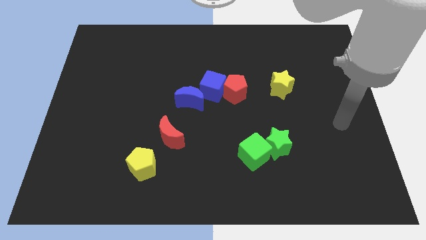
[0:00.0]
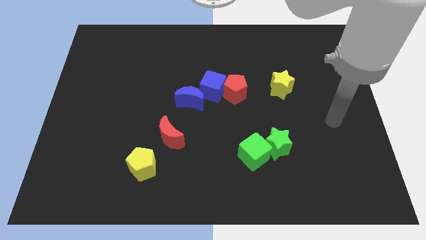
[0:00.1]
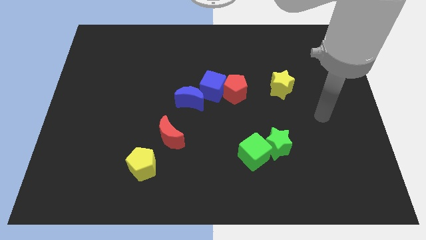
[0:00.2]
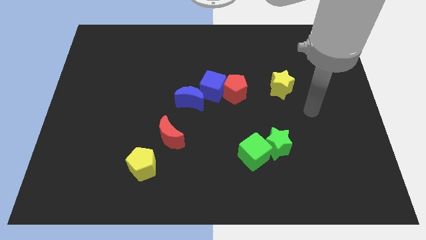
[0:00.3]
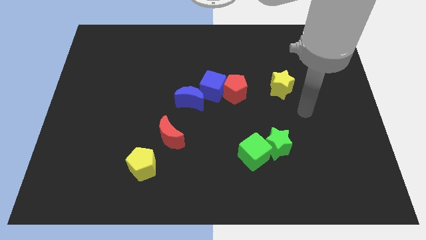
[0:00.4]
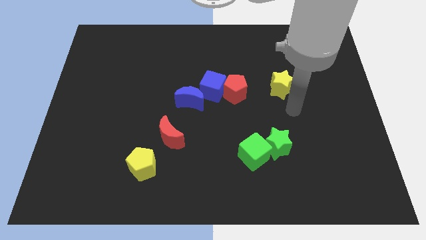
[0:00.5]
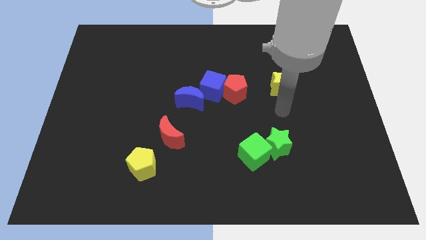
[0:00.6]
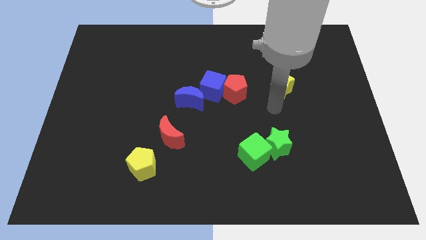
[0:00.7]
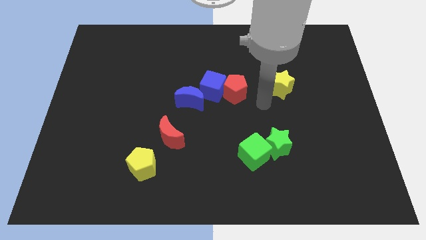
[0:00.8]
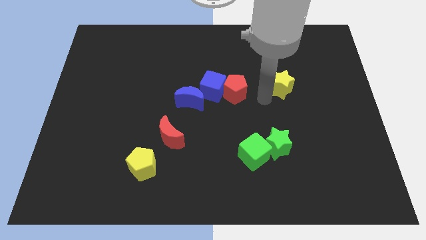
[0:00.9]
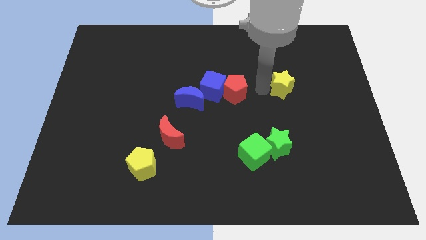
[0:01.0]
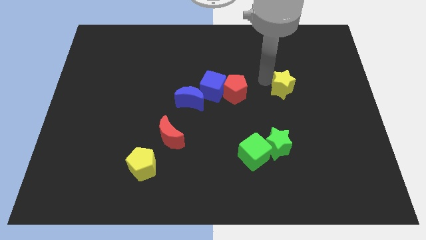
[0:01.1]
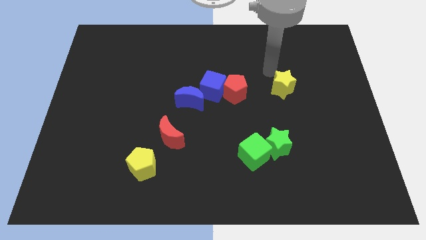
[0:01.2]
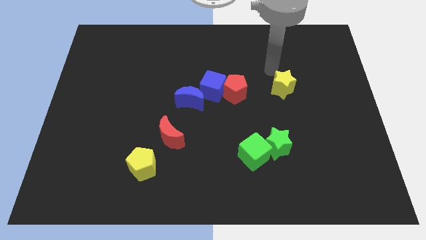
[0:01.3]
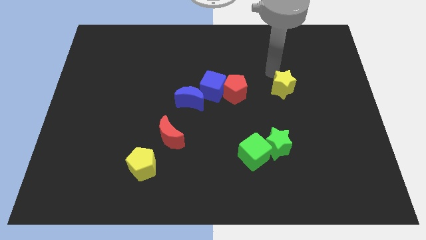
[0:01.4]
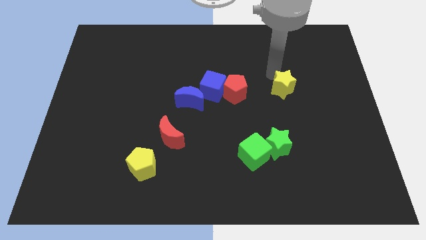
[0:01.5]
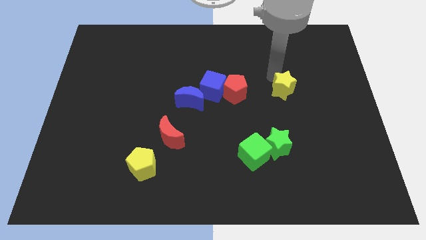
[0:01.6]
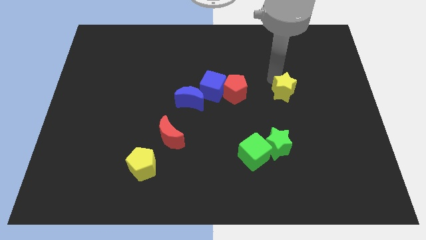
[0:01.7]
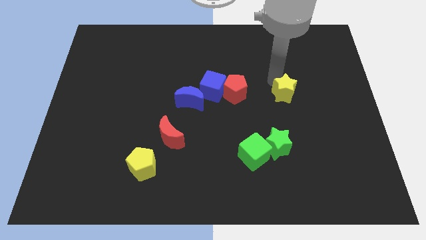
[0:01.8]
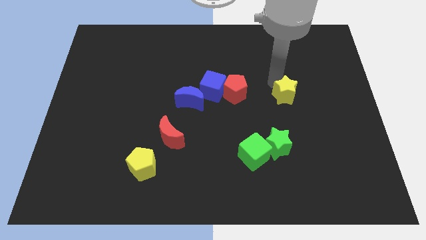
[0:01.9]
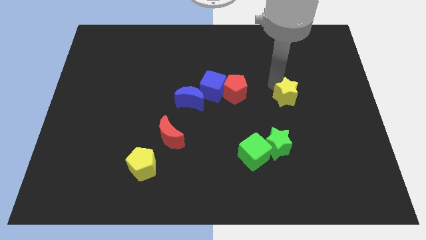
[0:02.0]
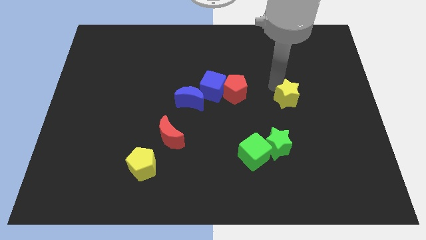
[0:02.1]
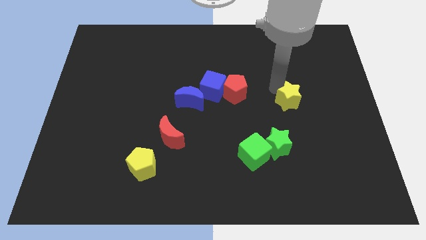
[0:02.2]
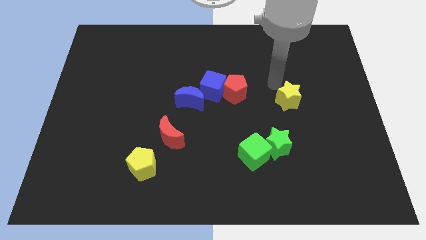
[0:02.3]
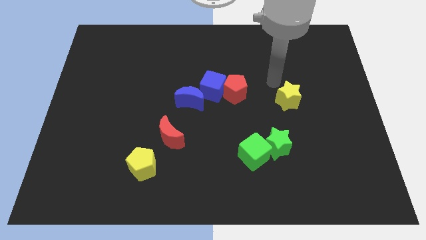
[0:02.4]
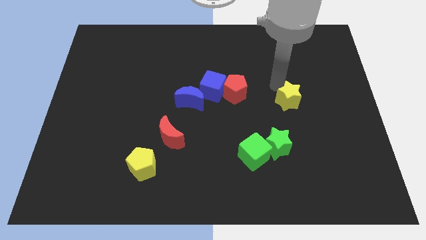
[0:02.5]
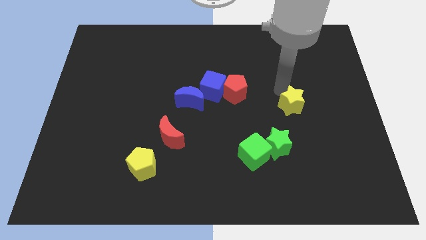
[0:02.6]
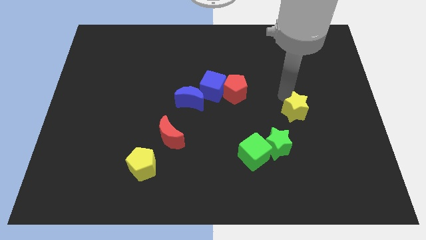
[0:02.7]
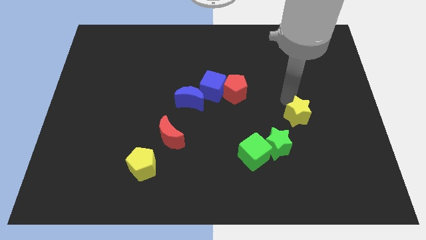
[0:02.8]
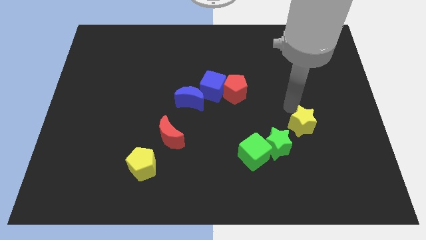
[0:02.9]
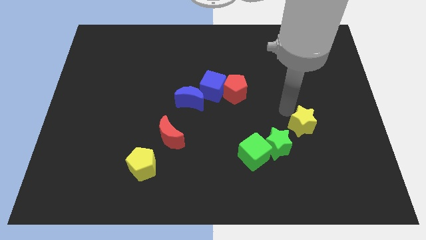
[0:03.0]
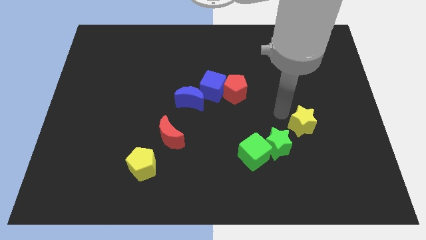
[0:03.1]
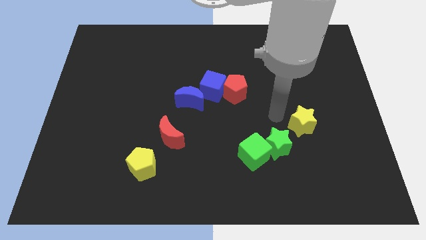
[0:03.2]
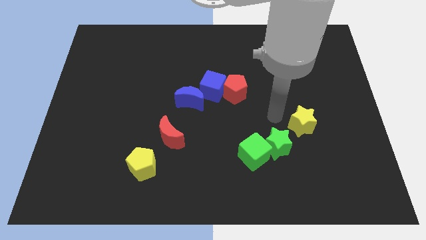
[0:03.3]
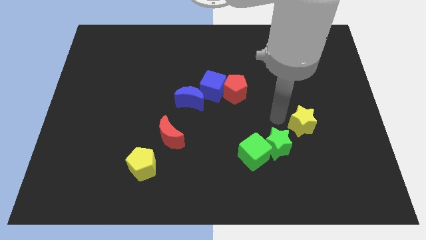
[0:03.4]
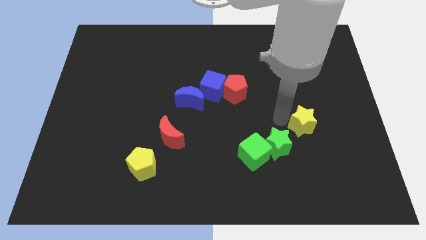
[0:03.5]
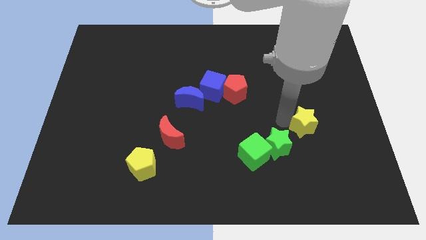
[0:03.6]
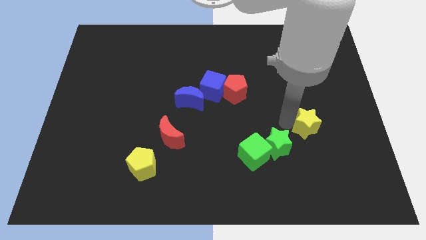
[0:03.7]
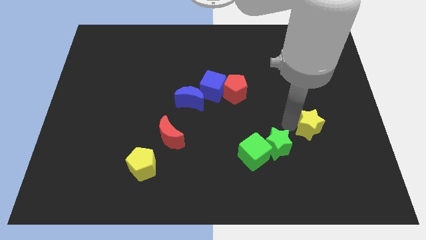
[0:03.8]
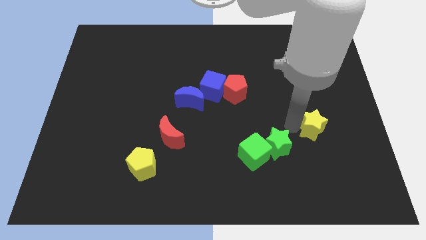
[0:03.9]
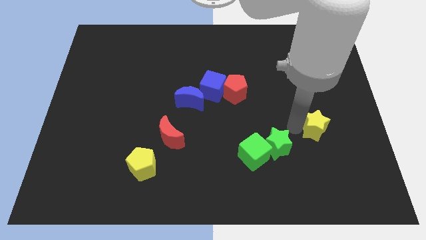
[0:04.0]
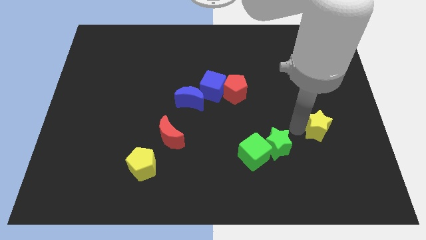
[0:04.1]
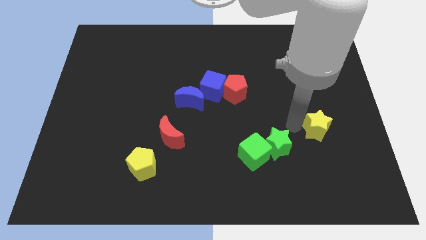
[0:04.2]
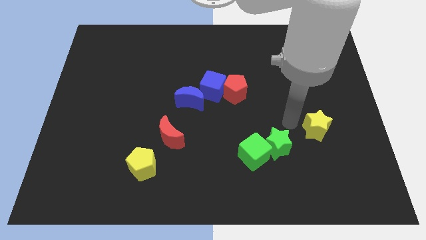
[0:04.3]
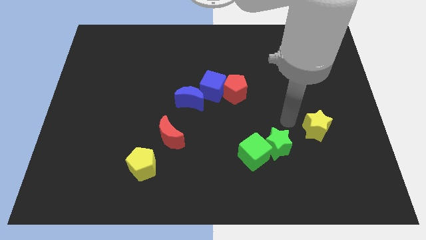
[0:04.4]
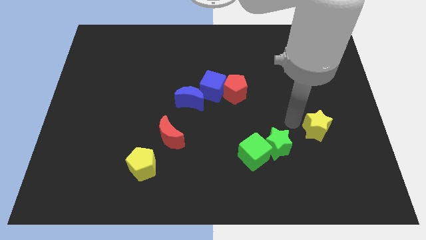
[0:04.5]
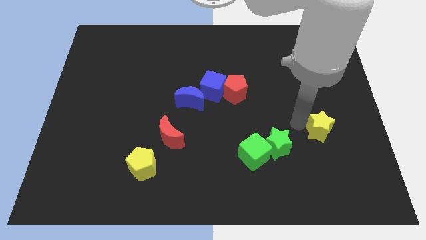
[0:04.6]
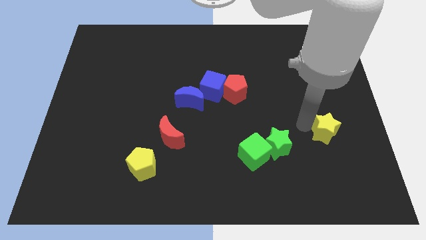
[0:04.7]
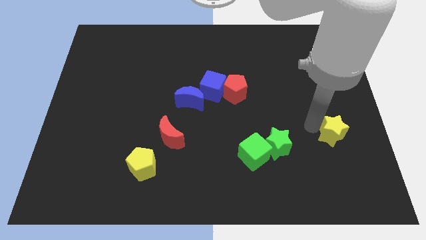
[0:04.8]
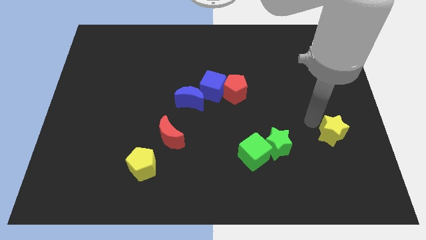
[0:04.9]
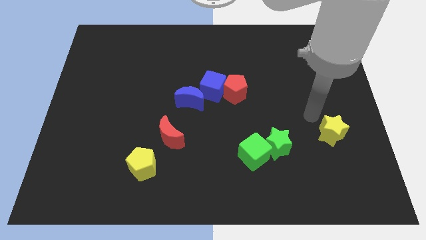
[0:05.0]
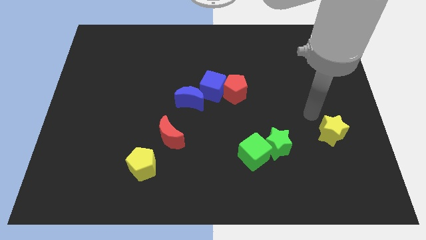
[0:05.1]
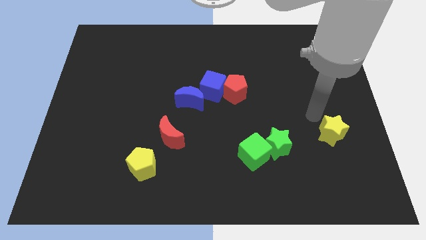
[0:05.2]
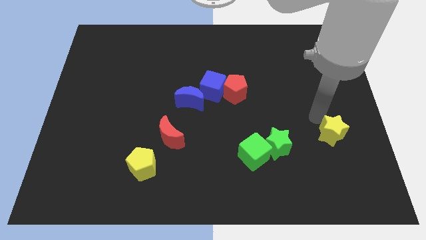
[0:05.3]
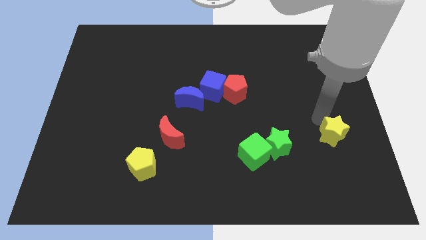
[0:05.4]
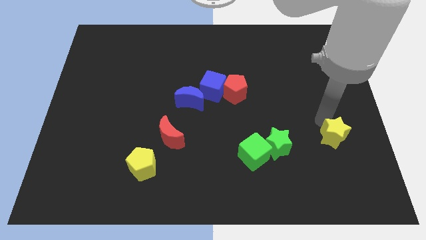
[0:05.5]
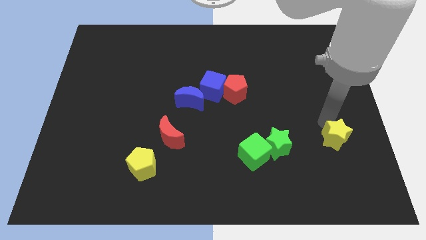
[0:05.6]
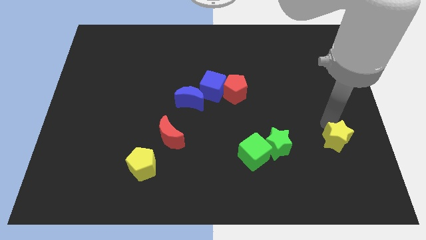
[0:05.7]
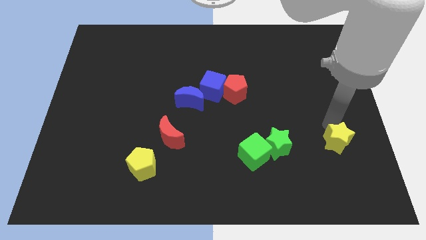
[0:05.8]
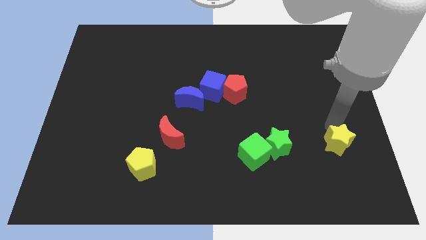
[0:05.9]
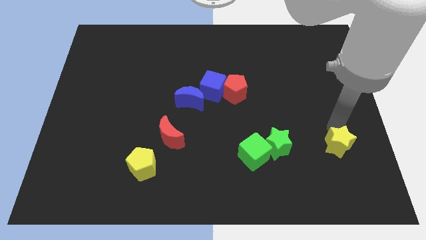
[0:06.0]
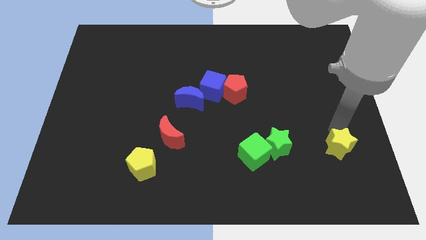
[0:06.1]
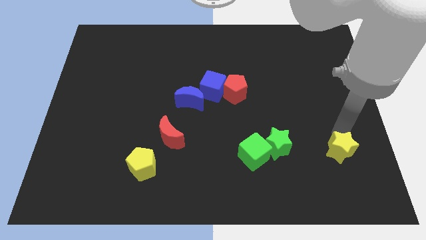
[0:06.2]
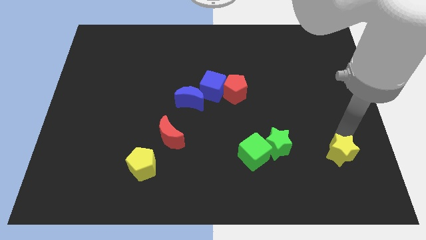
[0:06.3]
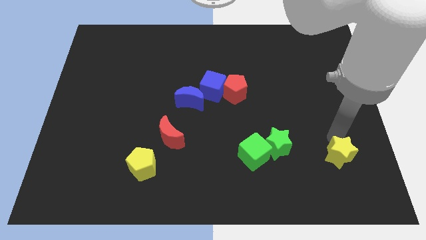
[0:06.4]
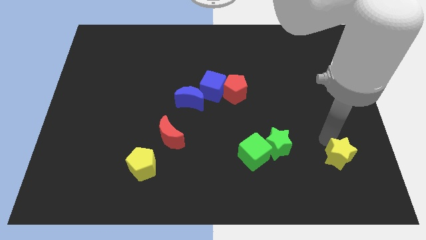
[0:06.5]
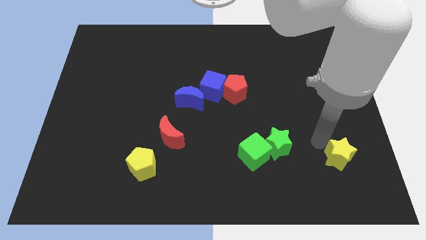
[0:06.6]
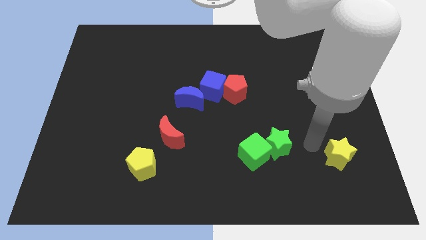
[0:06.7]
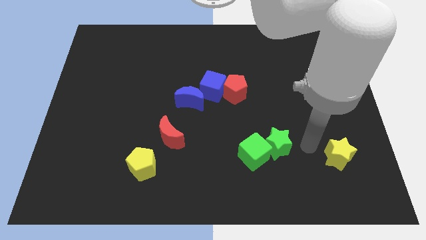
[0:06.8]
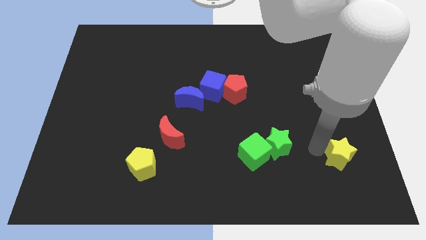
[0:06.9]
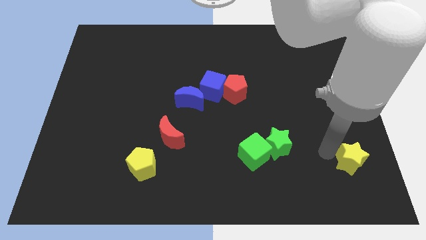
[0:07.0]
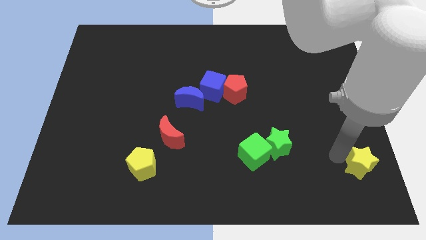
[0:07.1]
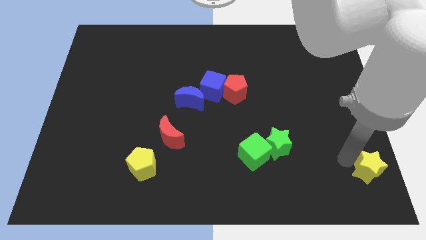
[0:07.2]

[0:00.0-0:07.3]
put the yellow star to the bottom right of the board

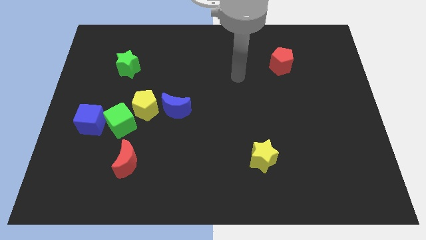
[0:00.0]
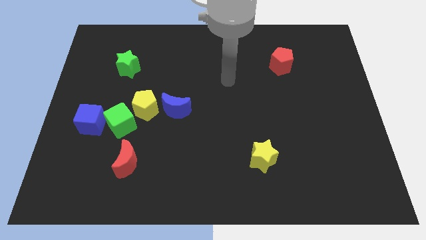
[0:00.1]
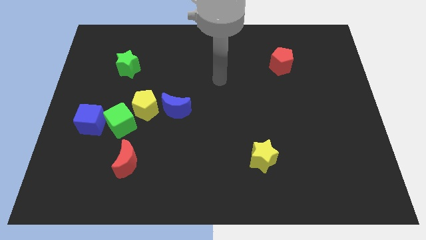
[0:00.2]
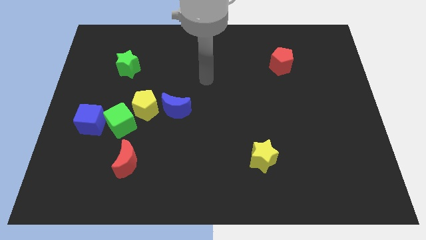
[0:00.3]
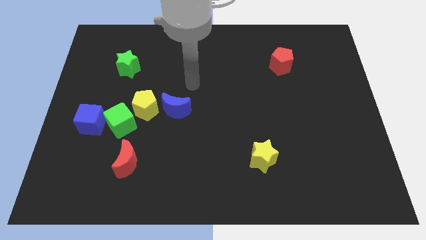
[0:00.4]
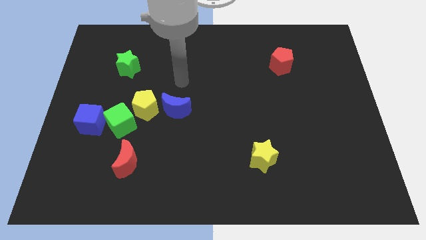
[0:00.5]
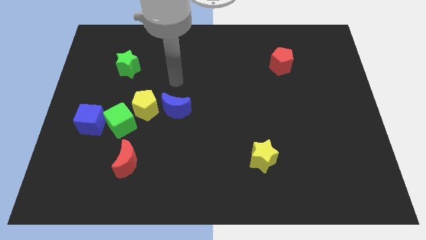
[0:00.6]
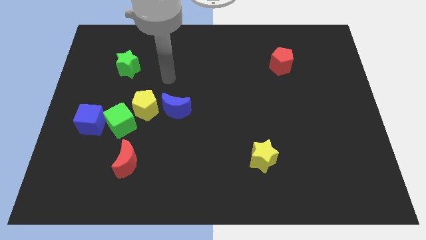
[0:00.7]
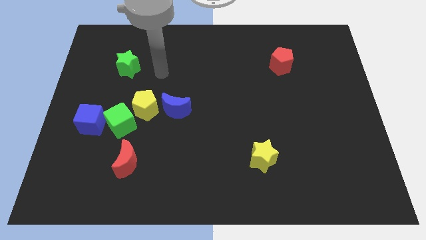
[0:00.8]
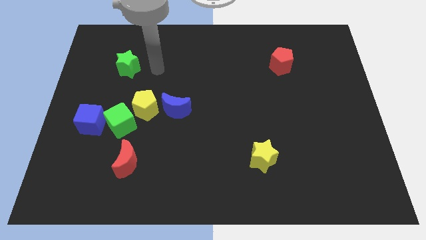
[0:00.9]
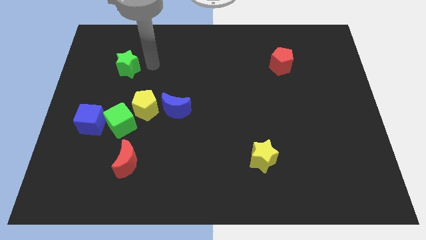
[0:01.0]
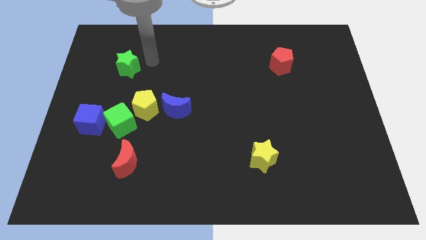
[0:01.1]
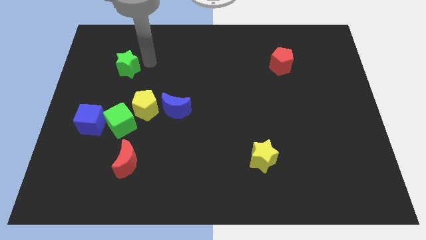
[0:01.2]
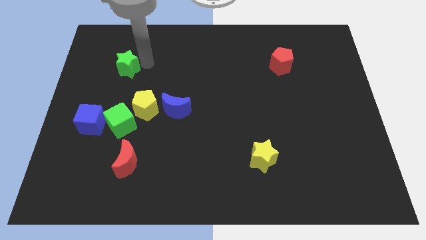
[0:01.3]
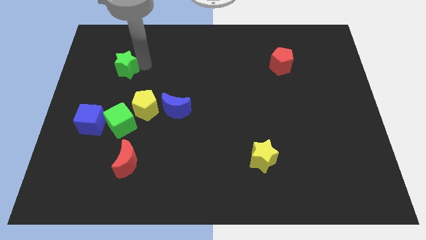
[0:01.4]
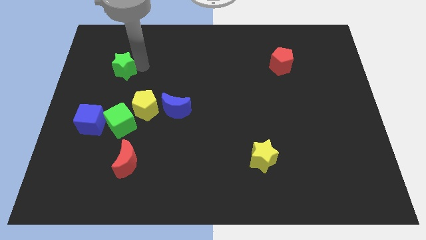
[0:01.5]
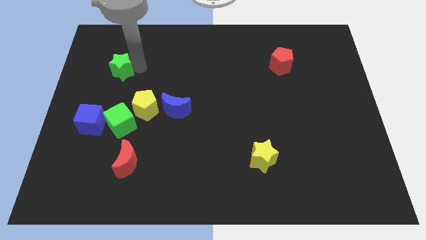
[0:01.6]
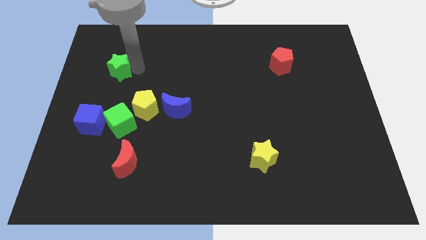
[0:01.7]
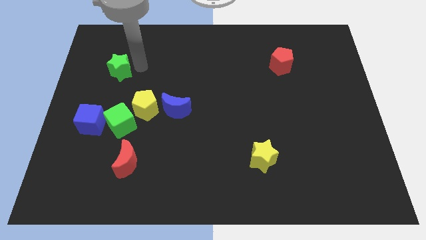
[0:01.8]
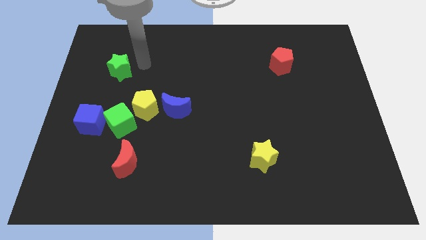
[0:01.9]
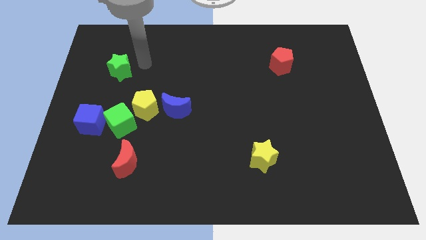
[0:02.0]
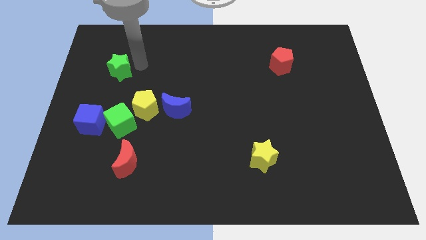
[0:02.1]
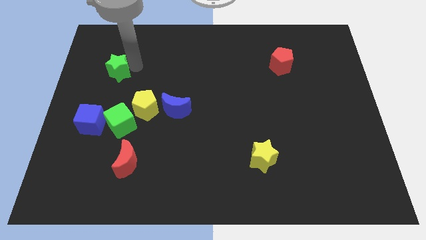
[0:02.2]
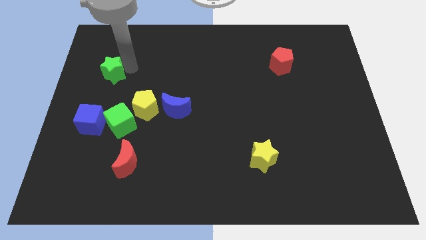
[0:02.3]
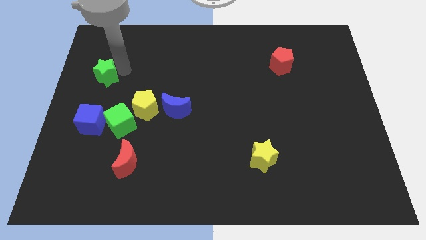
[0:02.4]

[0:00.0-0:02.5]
move the green star to the center left
